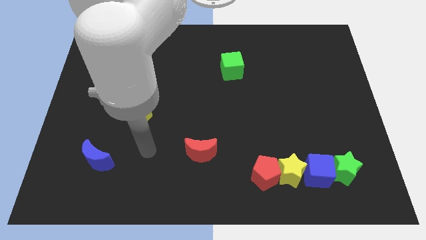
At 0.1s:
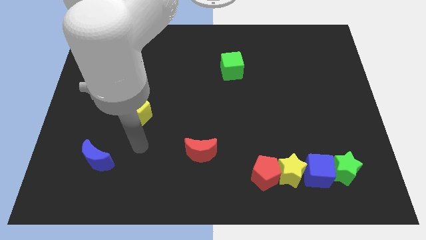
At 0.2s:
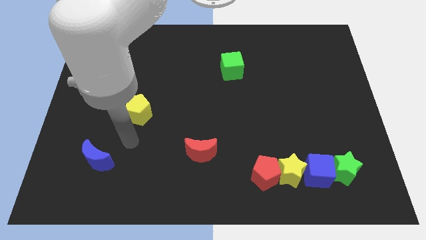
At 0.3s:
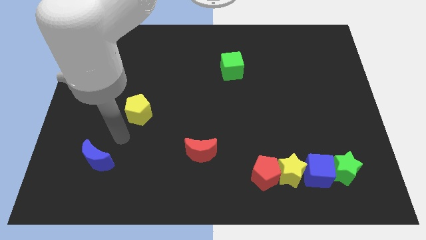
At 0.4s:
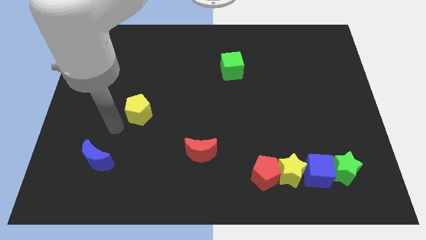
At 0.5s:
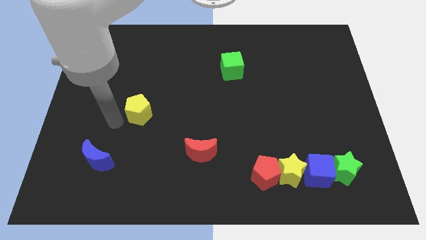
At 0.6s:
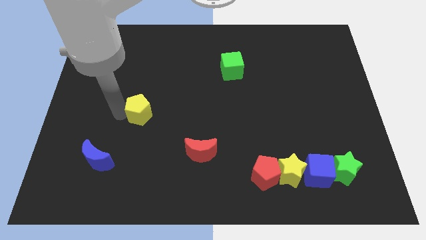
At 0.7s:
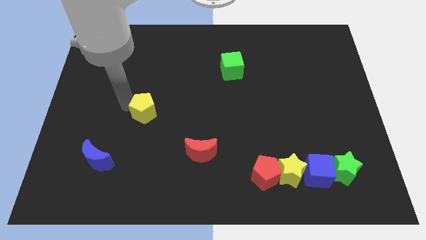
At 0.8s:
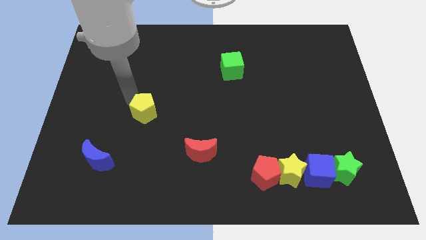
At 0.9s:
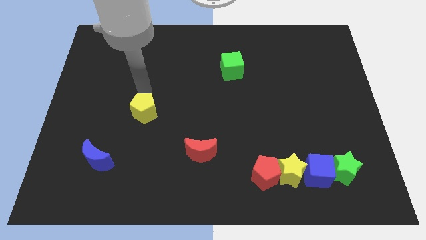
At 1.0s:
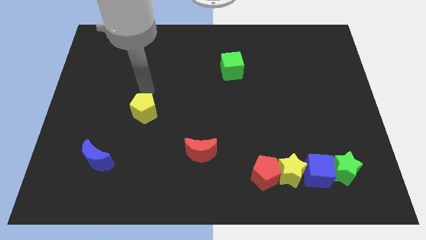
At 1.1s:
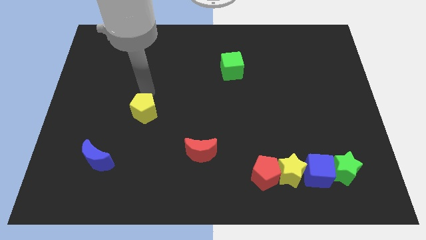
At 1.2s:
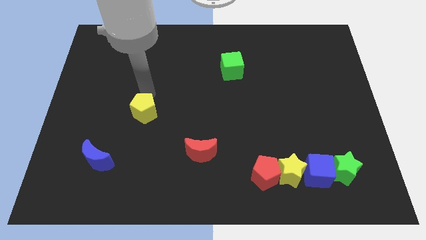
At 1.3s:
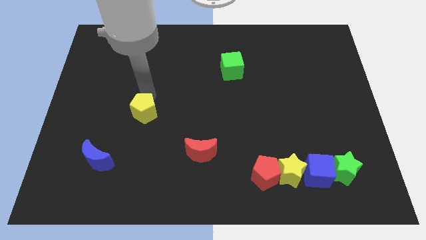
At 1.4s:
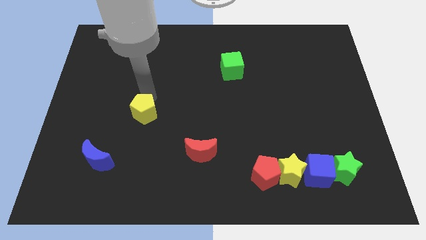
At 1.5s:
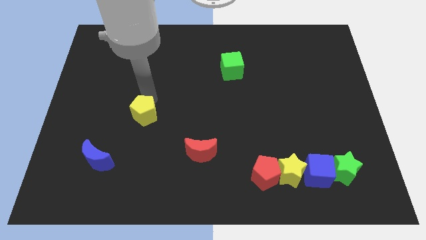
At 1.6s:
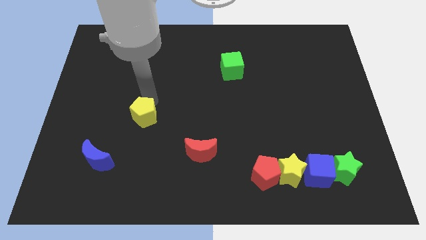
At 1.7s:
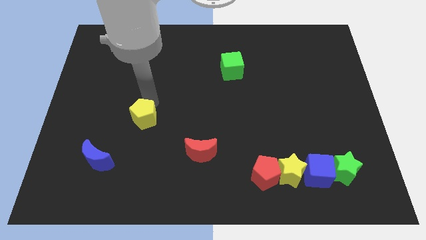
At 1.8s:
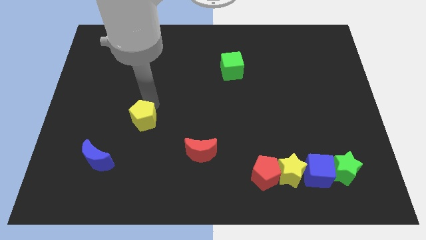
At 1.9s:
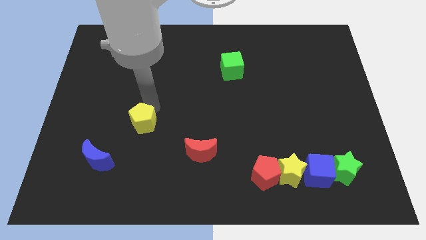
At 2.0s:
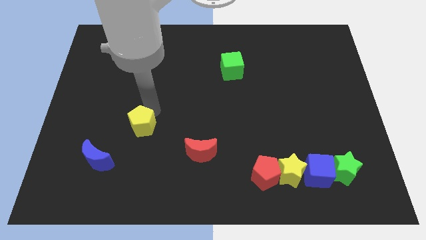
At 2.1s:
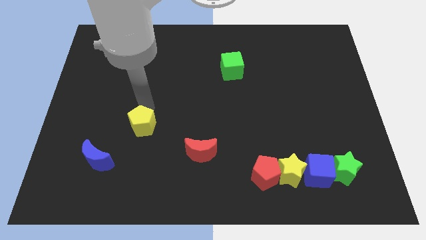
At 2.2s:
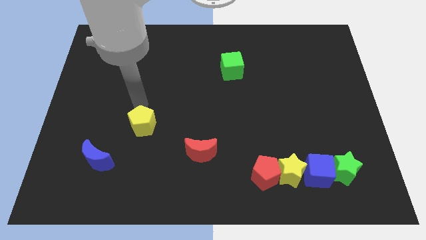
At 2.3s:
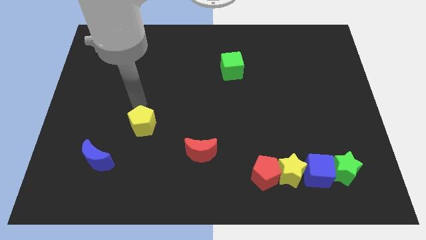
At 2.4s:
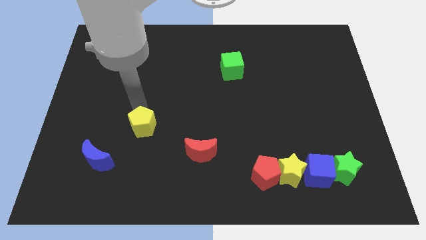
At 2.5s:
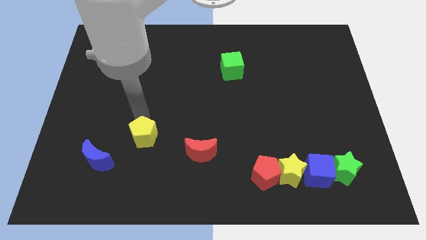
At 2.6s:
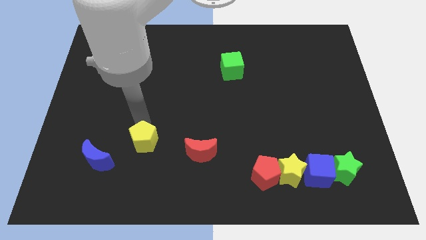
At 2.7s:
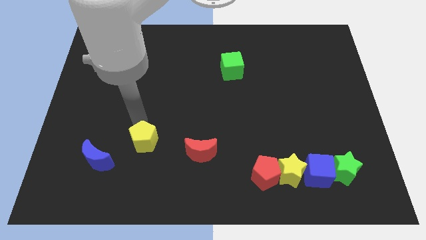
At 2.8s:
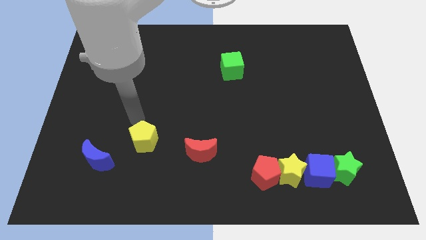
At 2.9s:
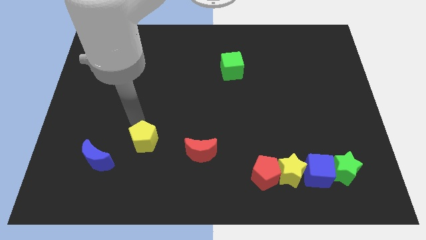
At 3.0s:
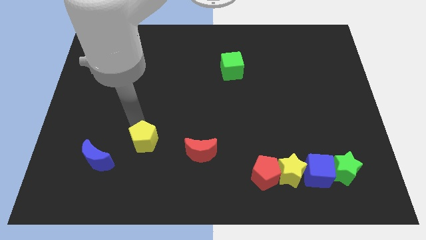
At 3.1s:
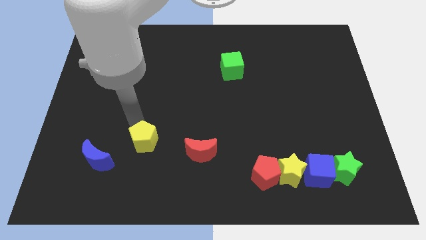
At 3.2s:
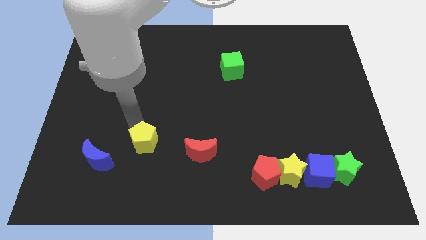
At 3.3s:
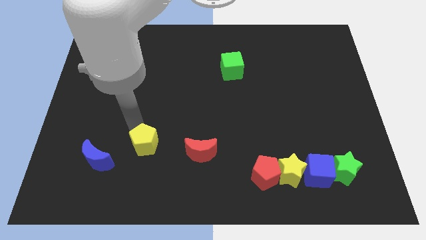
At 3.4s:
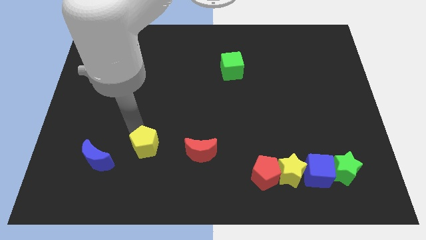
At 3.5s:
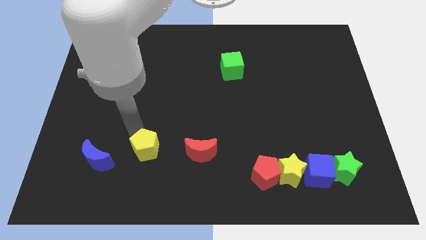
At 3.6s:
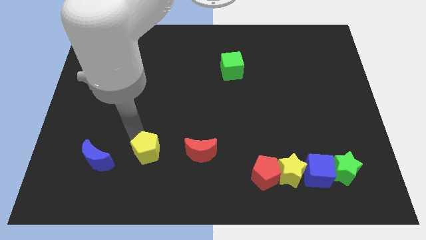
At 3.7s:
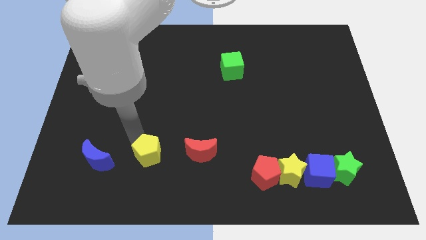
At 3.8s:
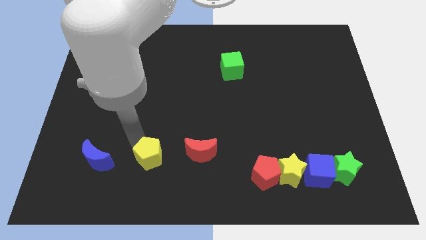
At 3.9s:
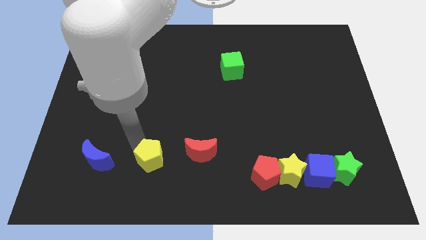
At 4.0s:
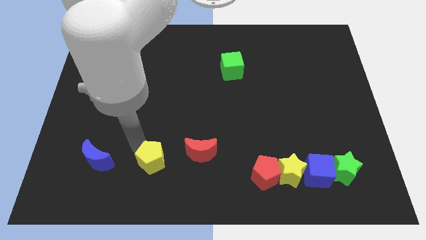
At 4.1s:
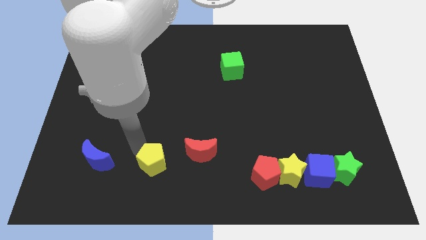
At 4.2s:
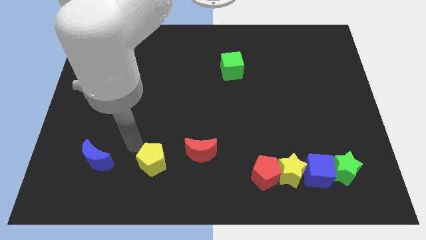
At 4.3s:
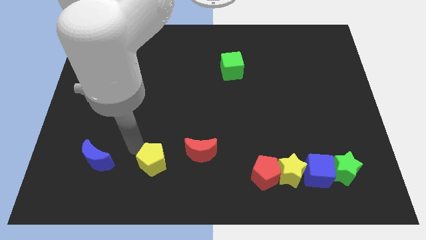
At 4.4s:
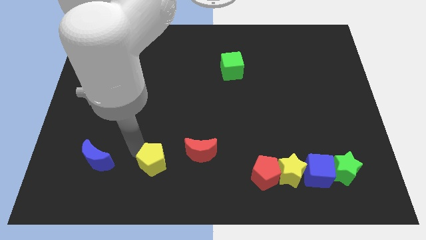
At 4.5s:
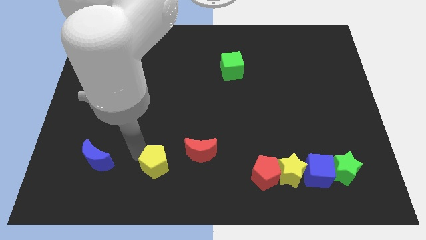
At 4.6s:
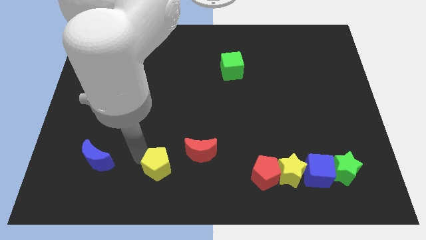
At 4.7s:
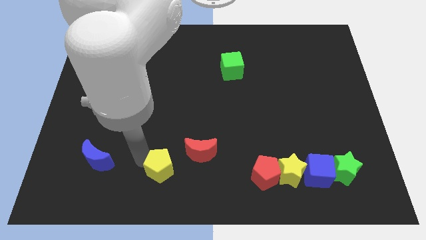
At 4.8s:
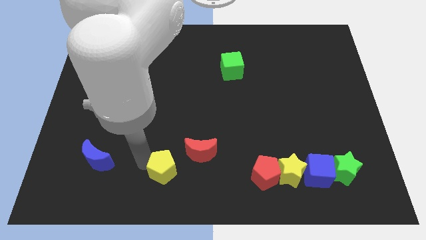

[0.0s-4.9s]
slide the yellow pentagon to the bottom side

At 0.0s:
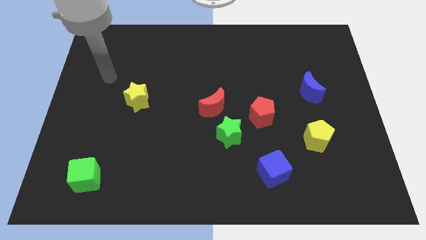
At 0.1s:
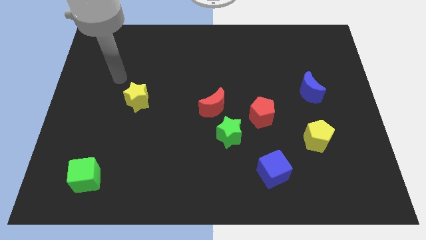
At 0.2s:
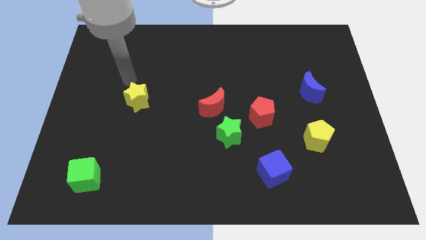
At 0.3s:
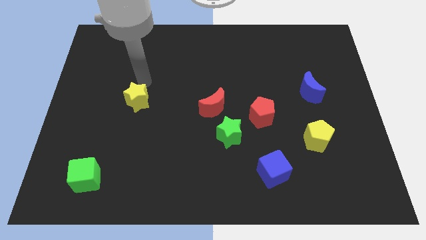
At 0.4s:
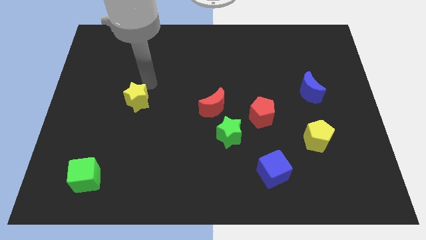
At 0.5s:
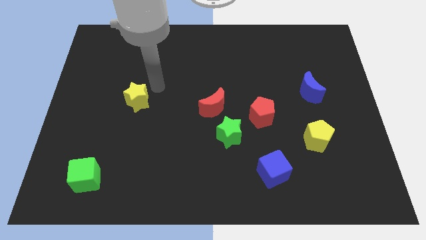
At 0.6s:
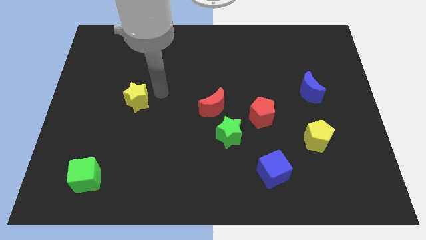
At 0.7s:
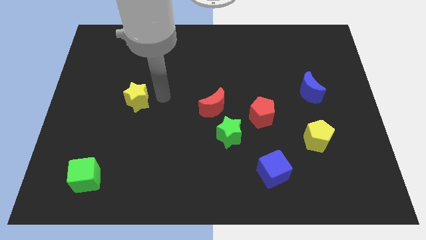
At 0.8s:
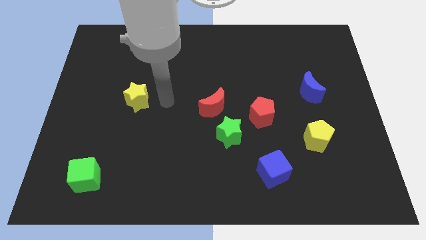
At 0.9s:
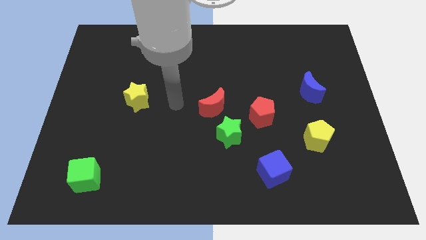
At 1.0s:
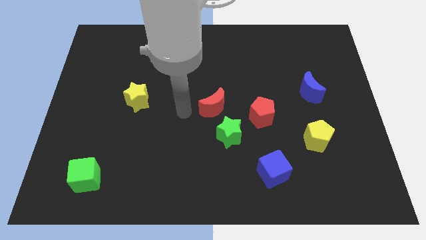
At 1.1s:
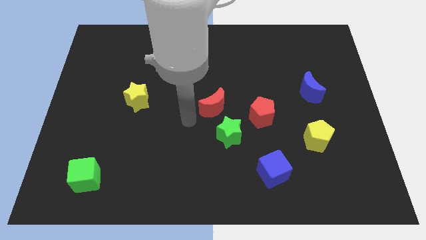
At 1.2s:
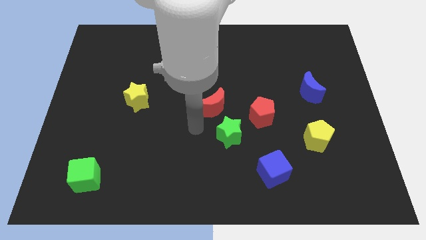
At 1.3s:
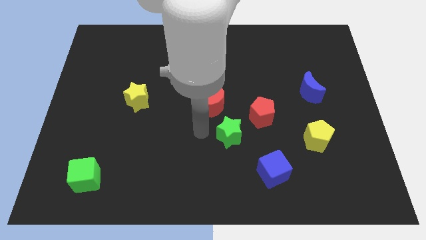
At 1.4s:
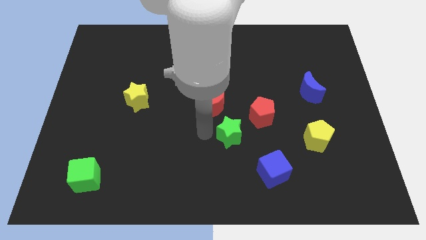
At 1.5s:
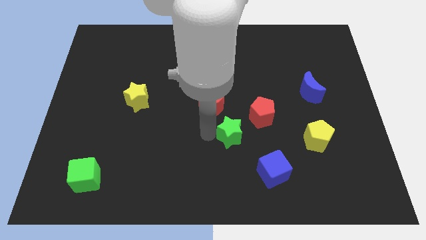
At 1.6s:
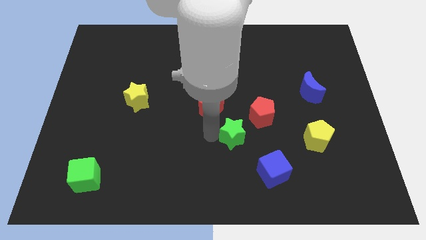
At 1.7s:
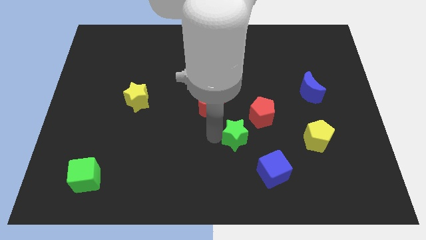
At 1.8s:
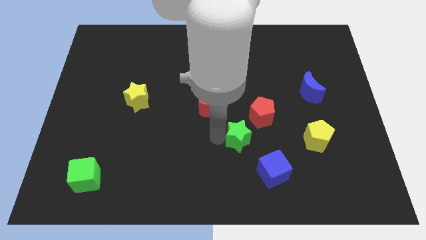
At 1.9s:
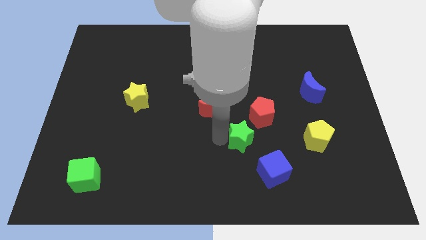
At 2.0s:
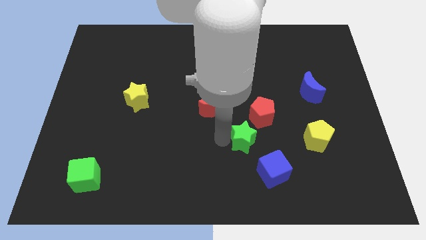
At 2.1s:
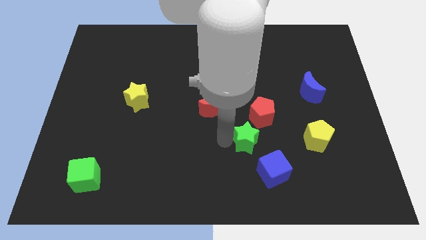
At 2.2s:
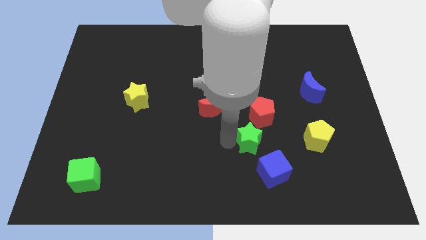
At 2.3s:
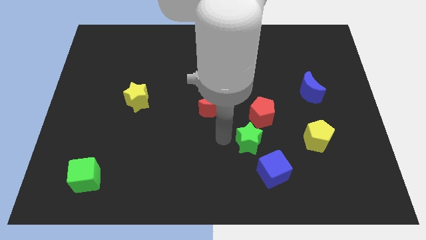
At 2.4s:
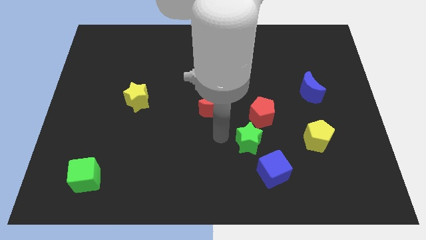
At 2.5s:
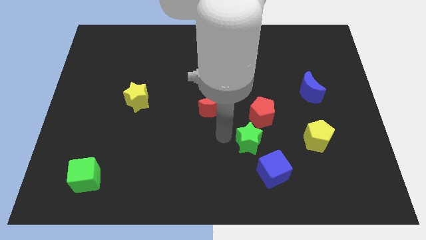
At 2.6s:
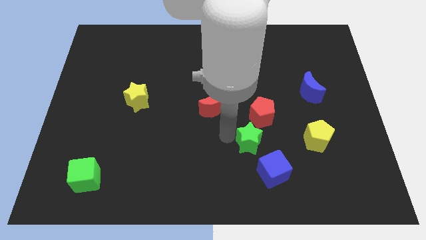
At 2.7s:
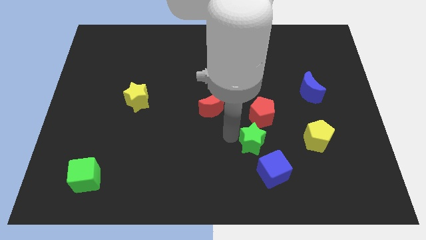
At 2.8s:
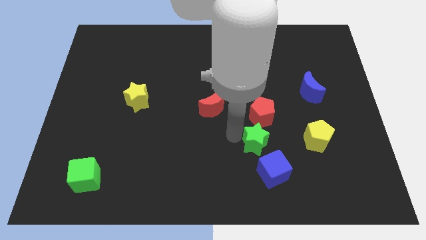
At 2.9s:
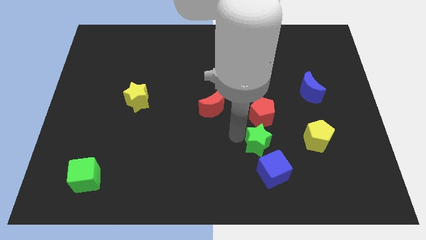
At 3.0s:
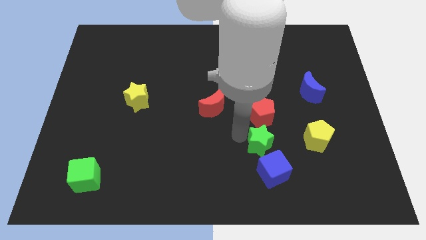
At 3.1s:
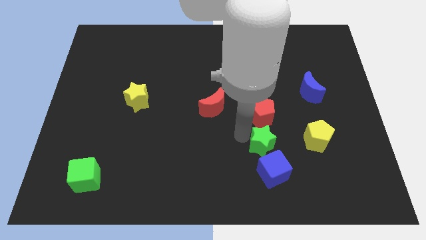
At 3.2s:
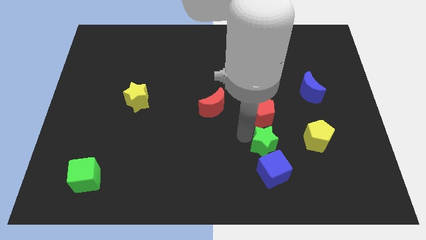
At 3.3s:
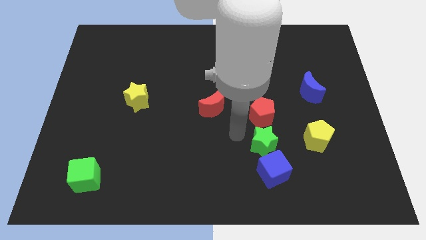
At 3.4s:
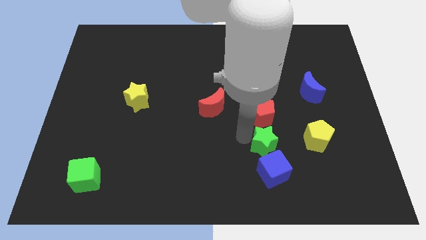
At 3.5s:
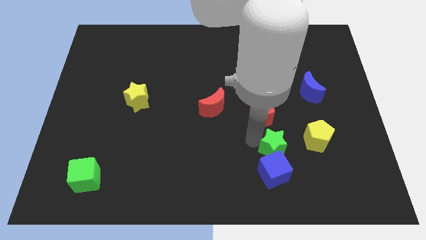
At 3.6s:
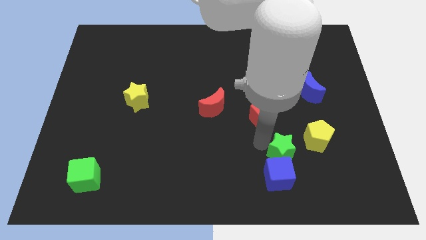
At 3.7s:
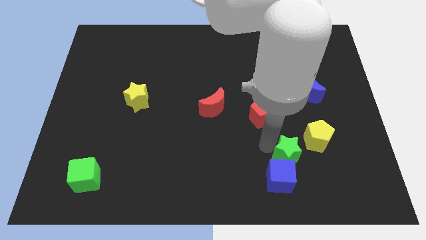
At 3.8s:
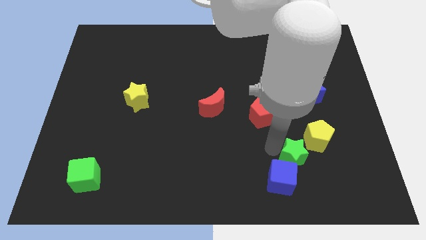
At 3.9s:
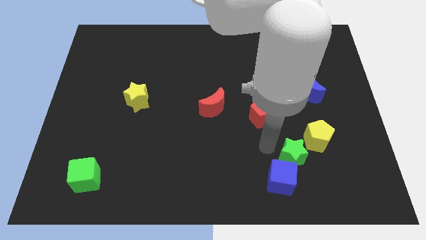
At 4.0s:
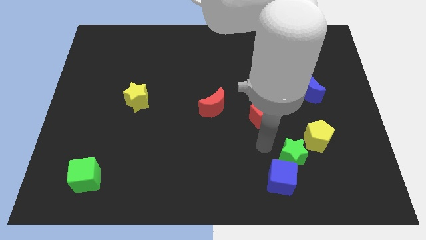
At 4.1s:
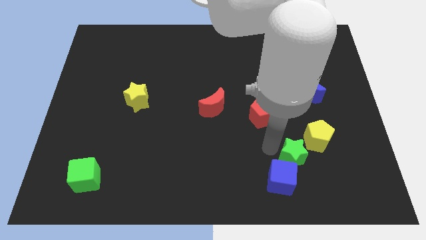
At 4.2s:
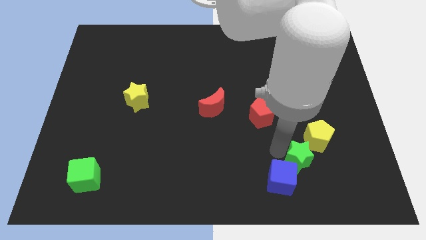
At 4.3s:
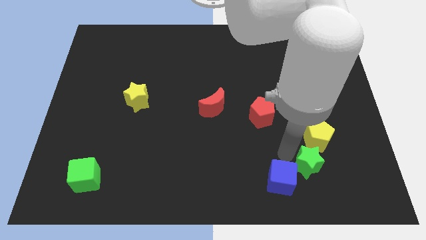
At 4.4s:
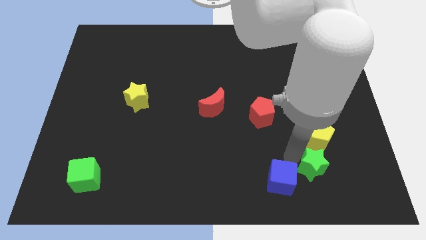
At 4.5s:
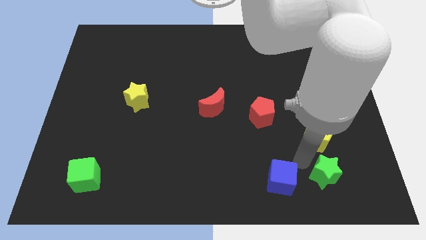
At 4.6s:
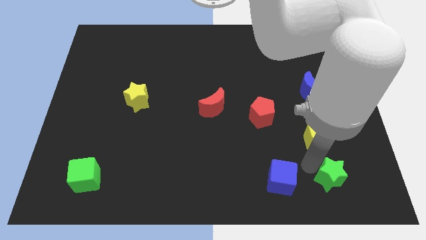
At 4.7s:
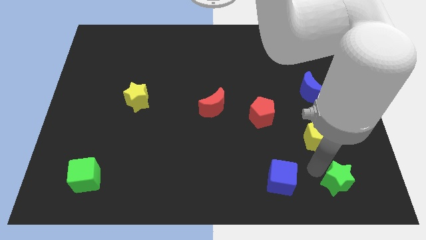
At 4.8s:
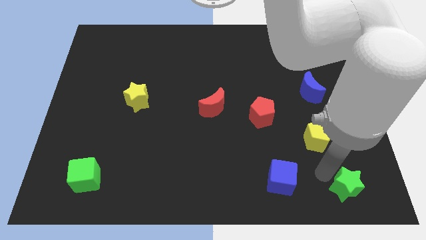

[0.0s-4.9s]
push the green star to the lower right corner
